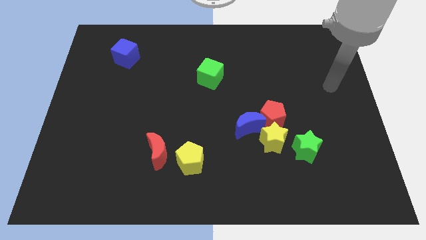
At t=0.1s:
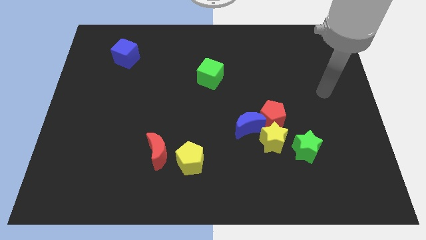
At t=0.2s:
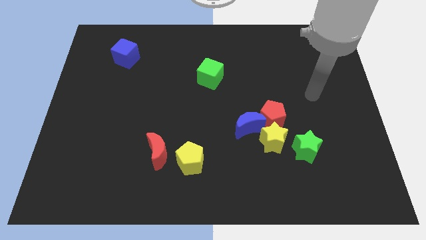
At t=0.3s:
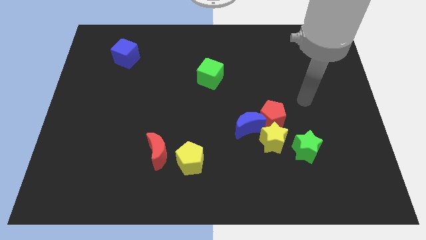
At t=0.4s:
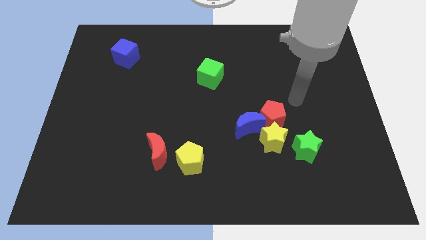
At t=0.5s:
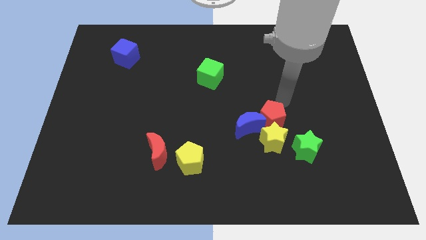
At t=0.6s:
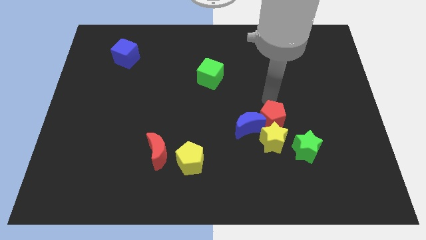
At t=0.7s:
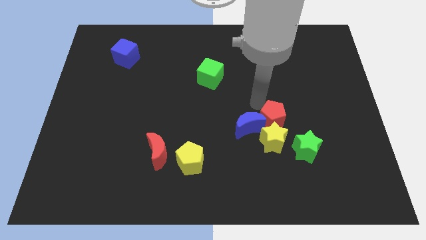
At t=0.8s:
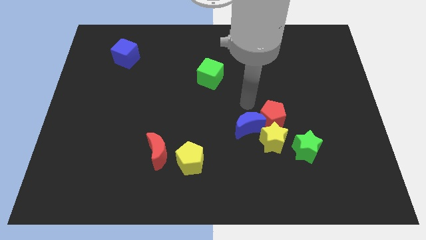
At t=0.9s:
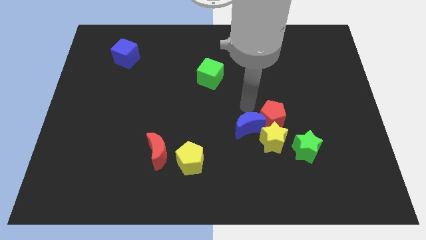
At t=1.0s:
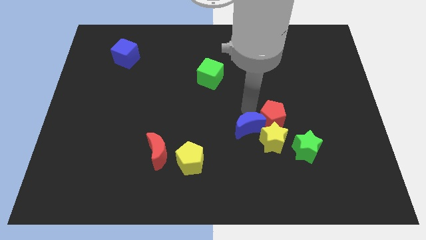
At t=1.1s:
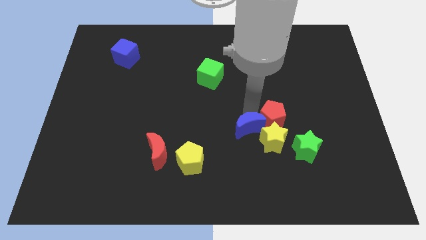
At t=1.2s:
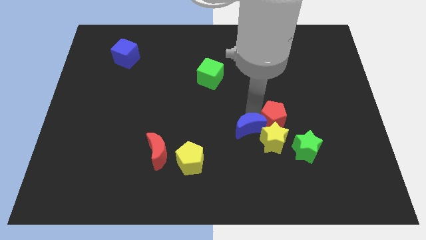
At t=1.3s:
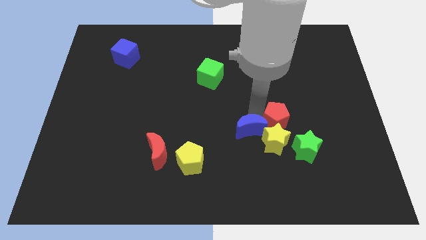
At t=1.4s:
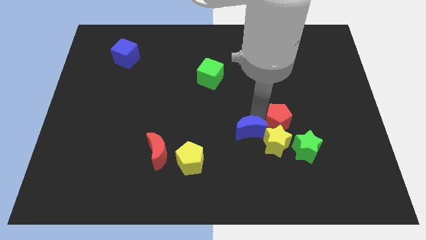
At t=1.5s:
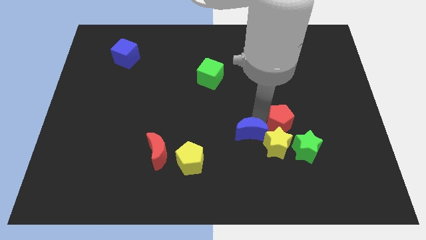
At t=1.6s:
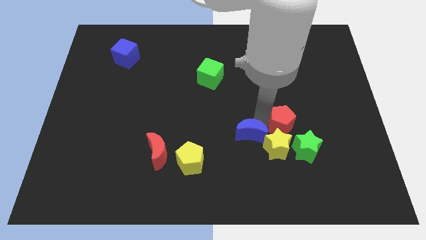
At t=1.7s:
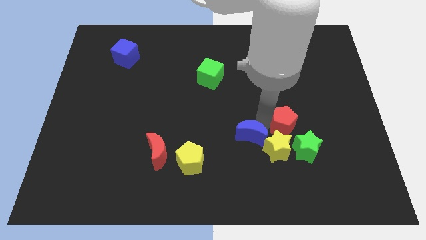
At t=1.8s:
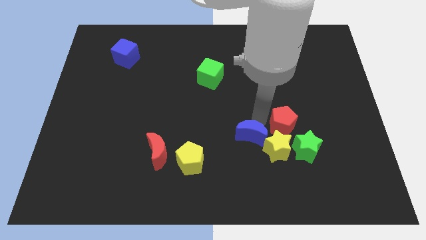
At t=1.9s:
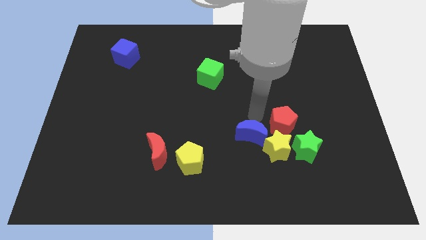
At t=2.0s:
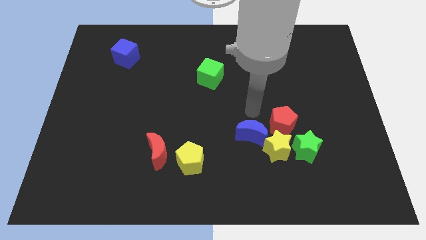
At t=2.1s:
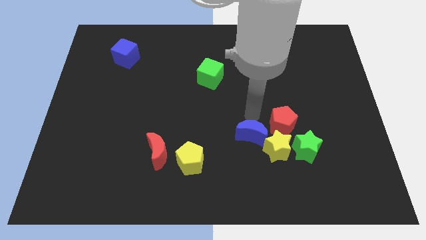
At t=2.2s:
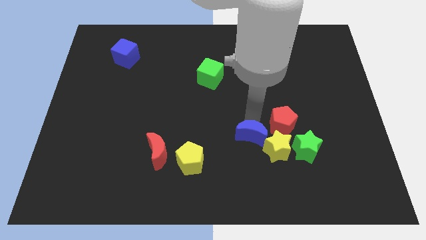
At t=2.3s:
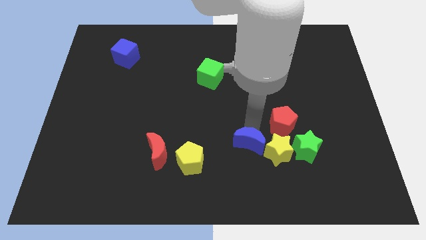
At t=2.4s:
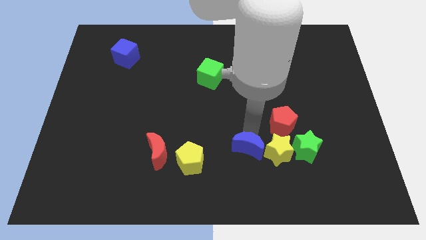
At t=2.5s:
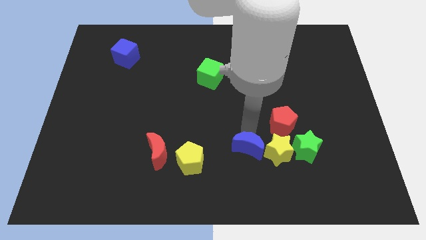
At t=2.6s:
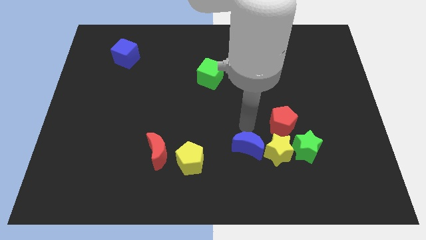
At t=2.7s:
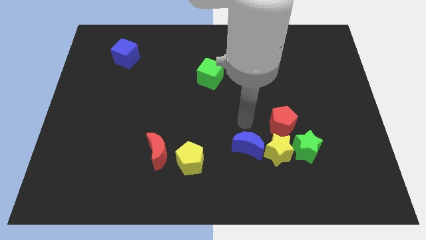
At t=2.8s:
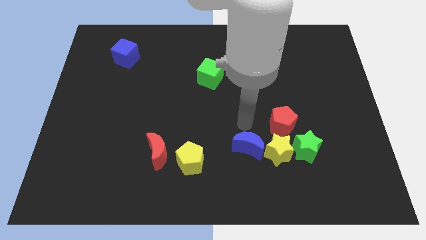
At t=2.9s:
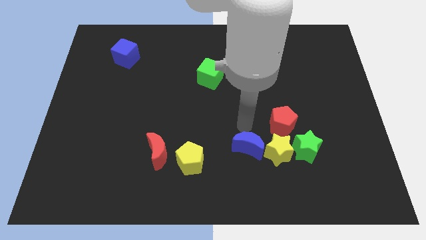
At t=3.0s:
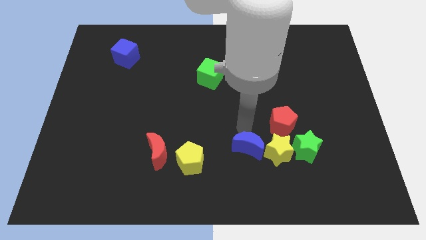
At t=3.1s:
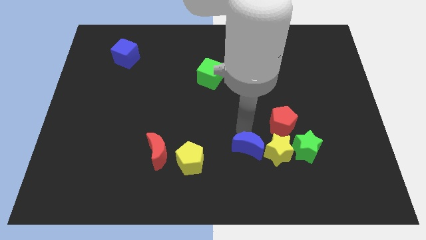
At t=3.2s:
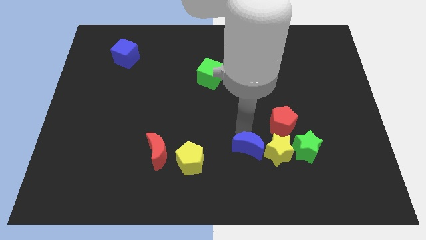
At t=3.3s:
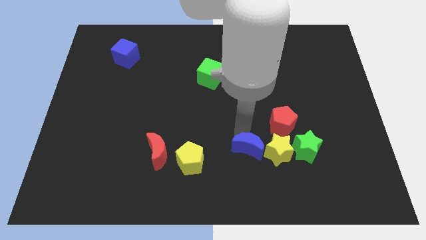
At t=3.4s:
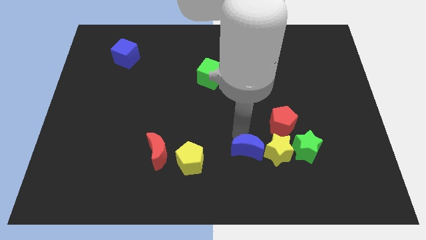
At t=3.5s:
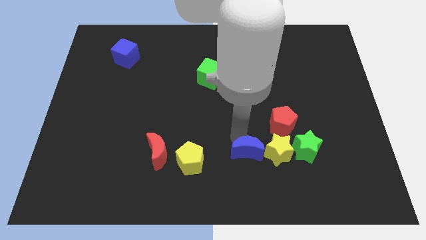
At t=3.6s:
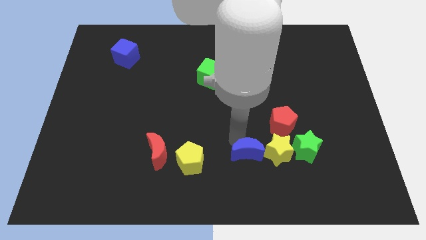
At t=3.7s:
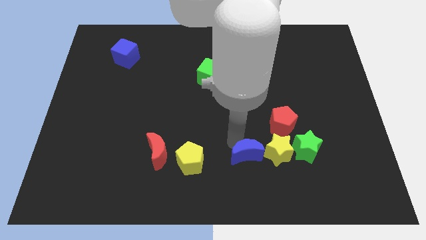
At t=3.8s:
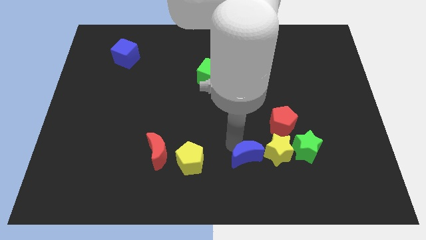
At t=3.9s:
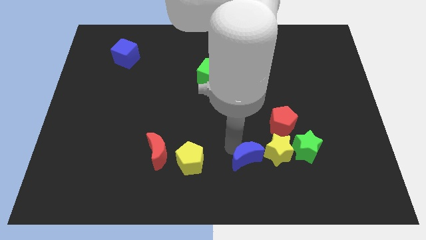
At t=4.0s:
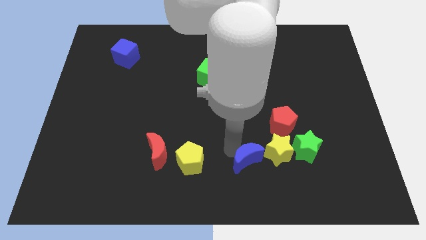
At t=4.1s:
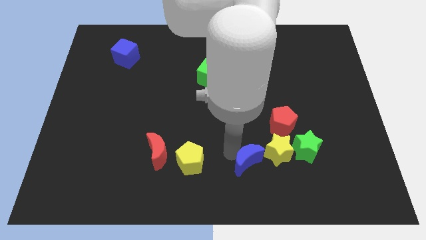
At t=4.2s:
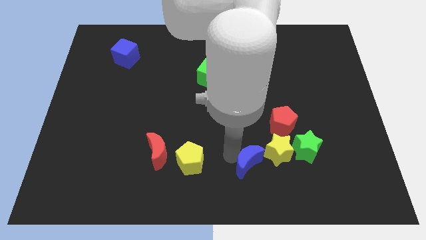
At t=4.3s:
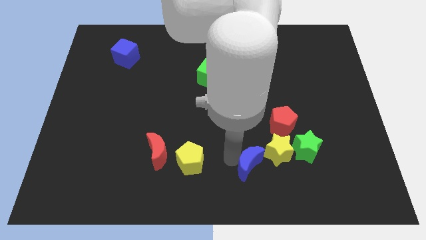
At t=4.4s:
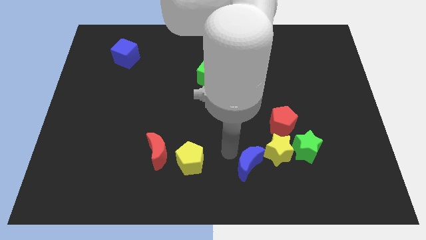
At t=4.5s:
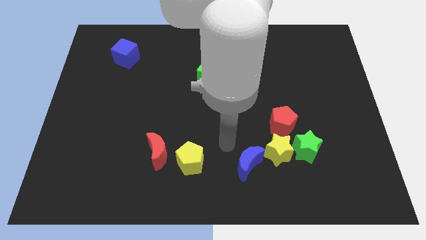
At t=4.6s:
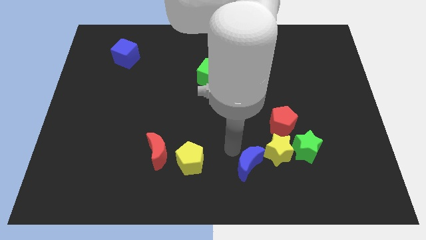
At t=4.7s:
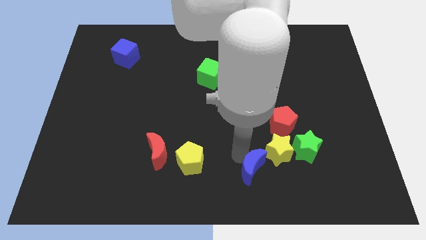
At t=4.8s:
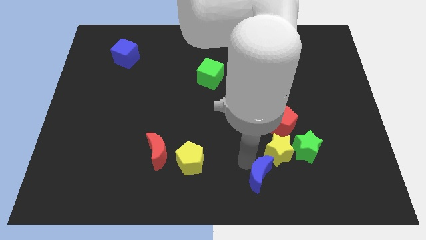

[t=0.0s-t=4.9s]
push the blue moon below the yellow star

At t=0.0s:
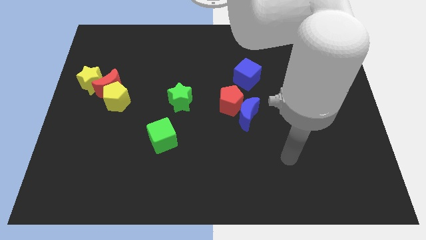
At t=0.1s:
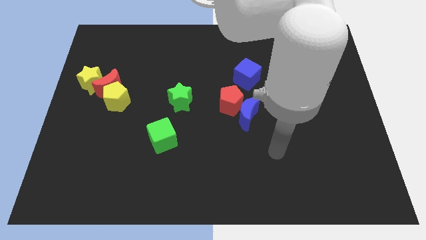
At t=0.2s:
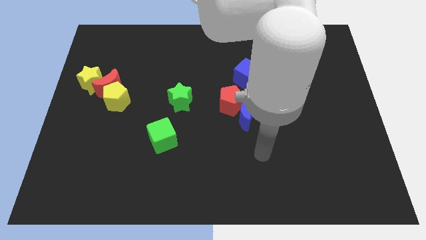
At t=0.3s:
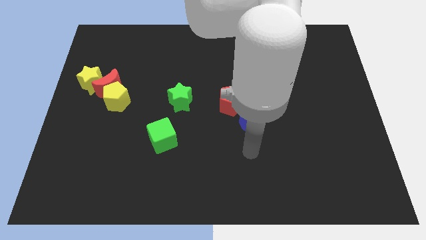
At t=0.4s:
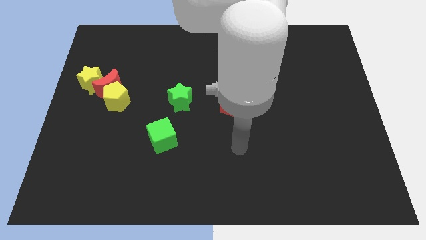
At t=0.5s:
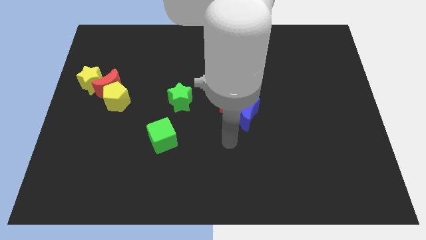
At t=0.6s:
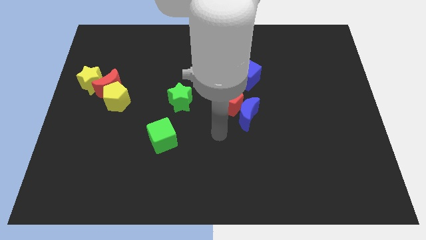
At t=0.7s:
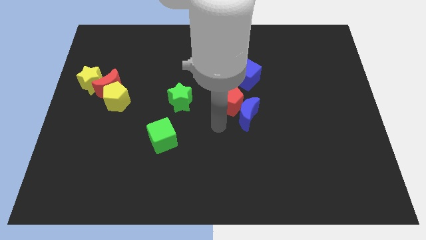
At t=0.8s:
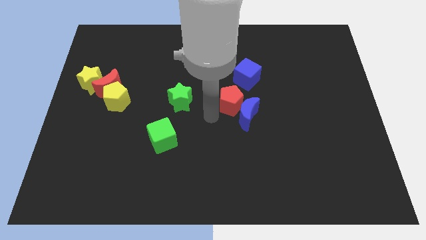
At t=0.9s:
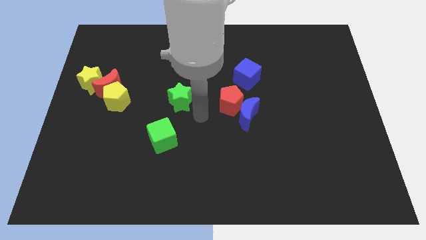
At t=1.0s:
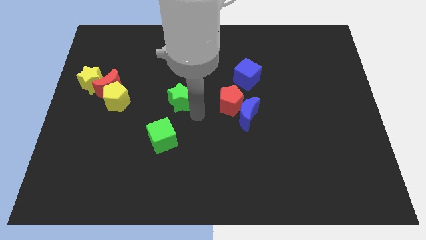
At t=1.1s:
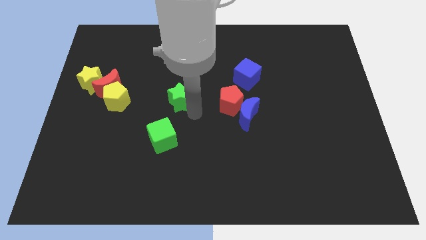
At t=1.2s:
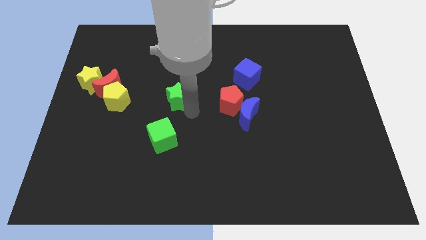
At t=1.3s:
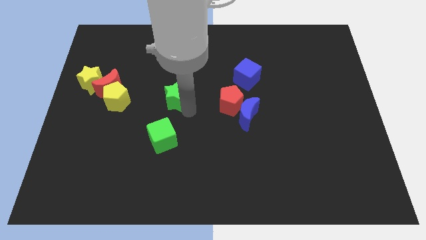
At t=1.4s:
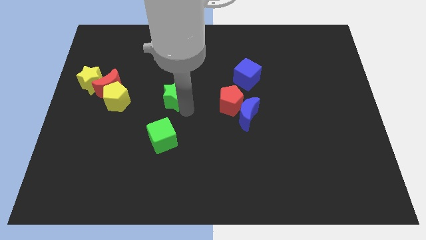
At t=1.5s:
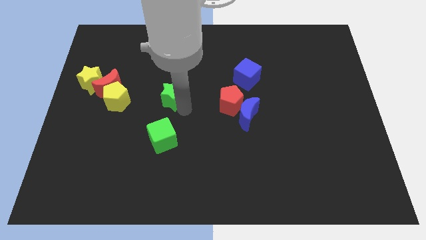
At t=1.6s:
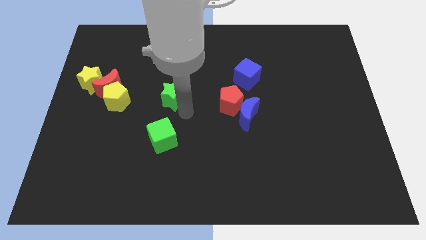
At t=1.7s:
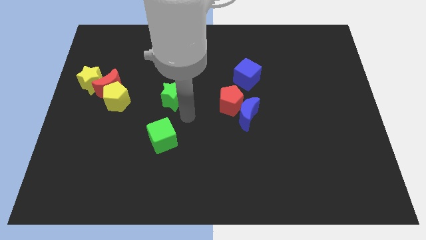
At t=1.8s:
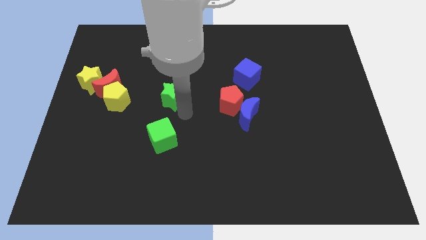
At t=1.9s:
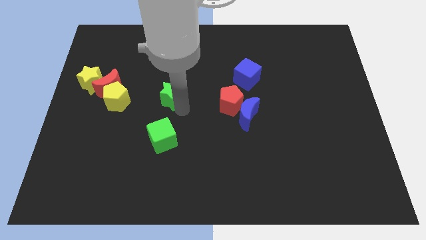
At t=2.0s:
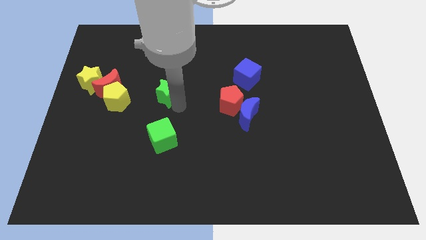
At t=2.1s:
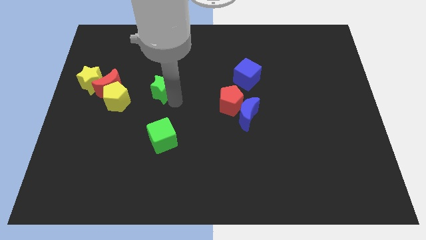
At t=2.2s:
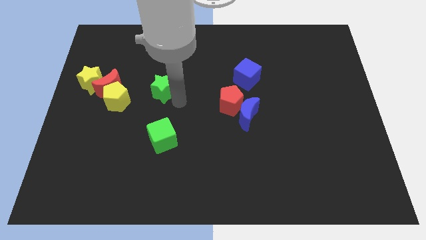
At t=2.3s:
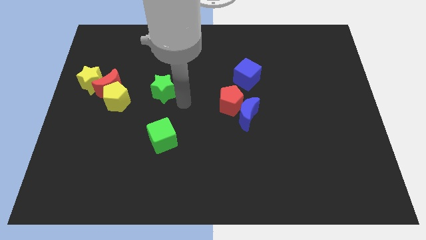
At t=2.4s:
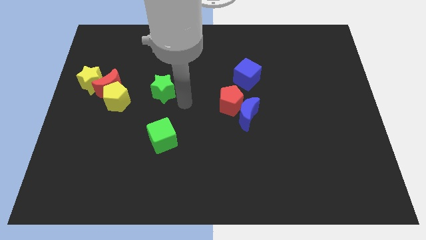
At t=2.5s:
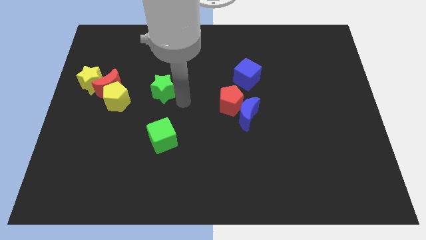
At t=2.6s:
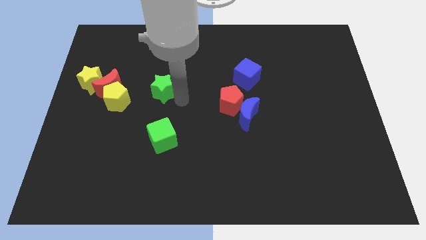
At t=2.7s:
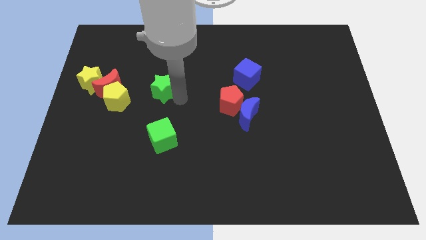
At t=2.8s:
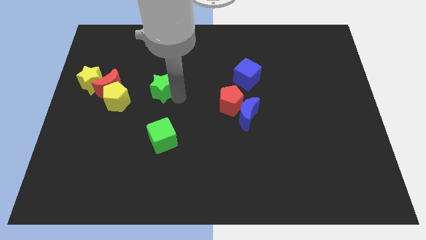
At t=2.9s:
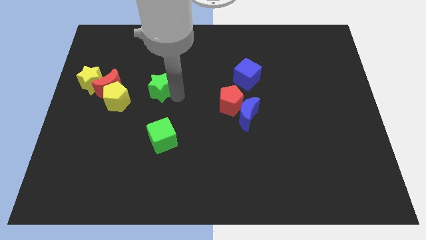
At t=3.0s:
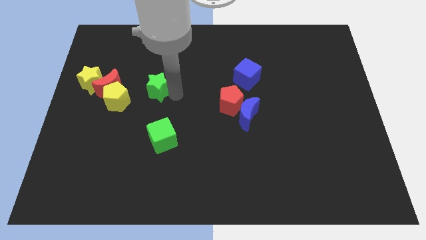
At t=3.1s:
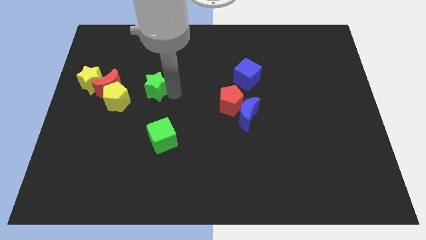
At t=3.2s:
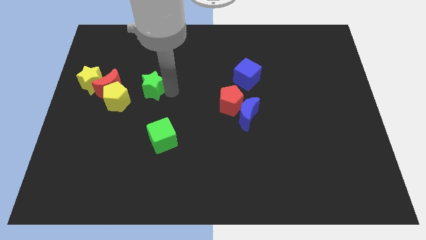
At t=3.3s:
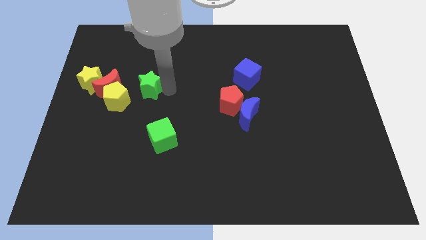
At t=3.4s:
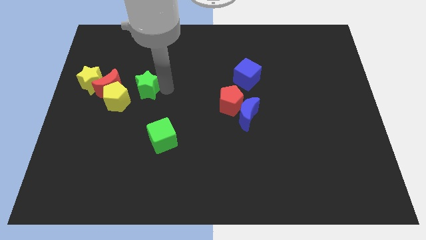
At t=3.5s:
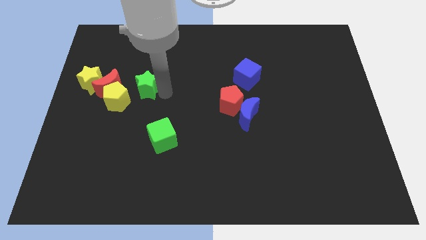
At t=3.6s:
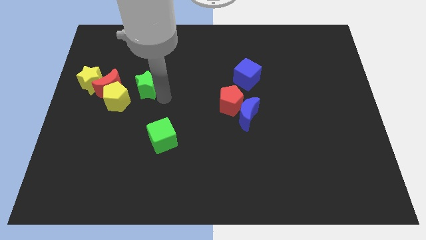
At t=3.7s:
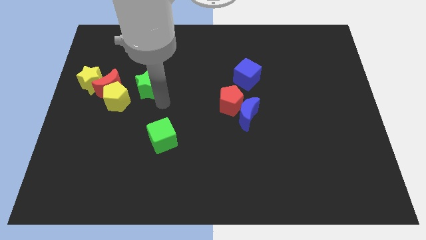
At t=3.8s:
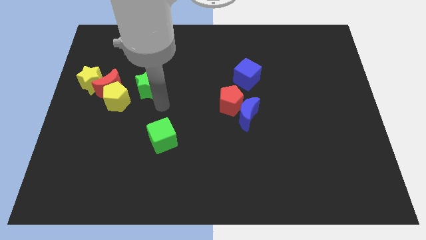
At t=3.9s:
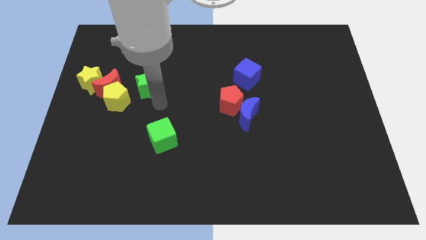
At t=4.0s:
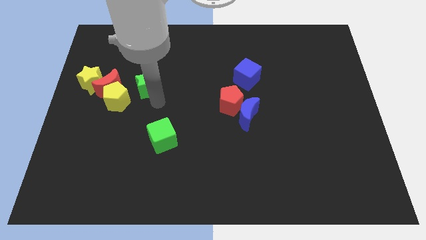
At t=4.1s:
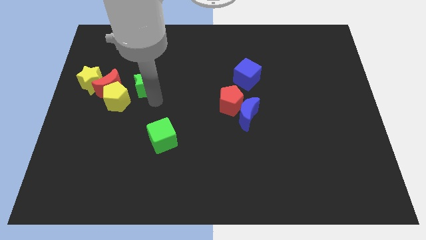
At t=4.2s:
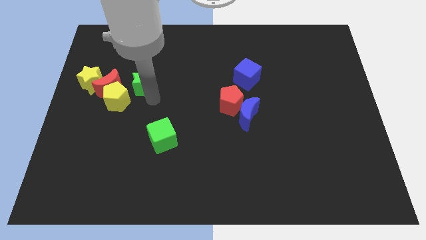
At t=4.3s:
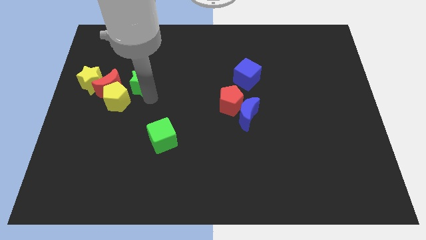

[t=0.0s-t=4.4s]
move the green star diagonally up and to the right of the red moon
